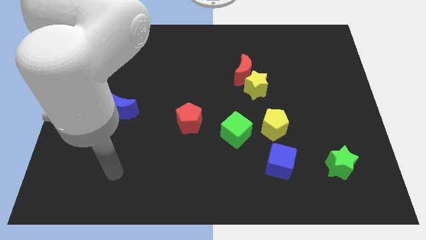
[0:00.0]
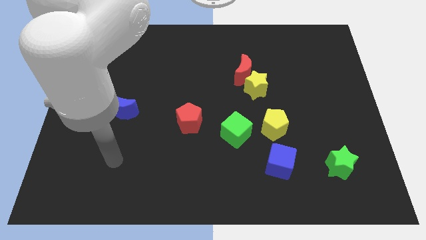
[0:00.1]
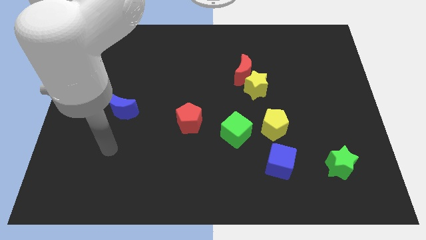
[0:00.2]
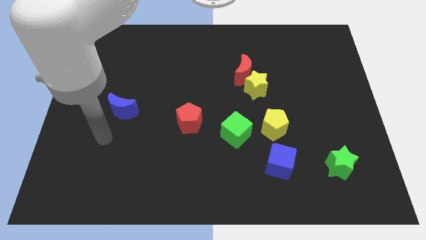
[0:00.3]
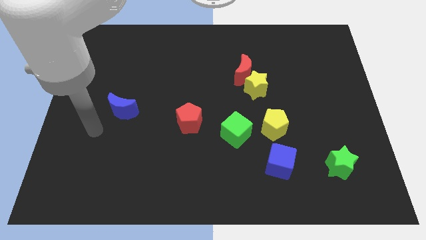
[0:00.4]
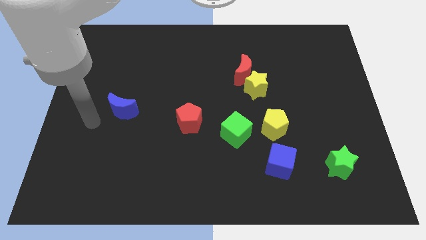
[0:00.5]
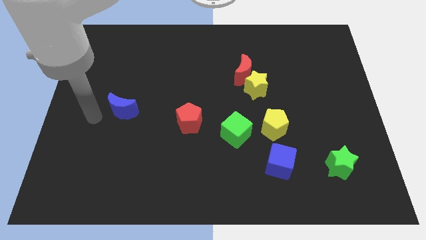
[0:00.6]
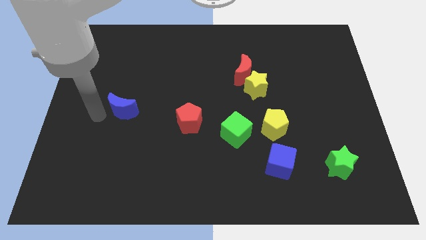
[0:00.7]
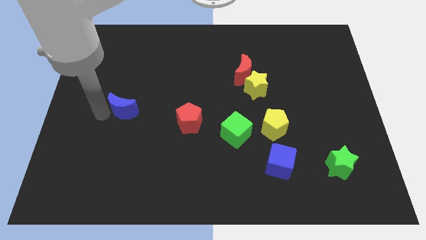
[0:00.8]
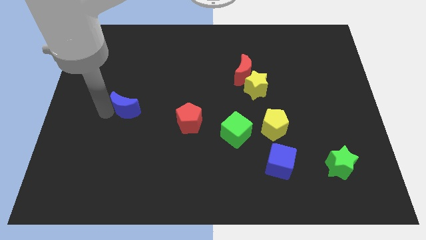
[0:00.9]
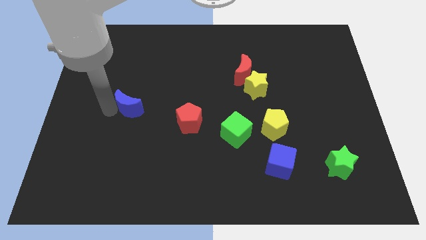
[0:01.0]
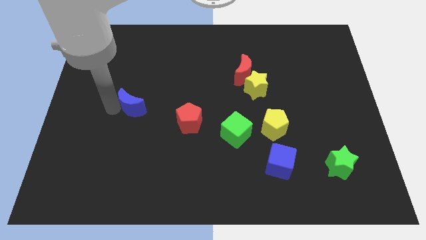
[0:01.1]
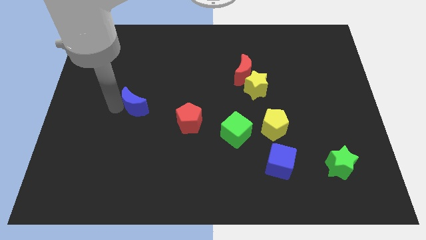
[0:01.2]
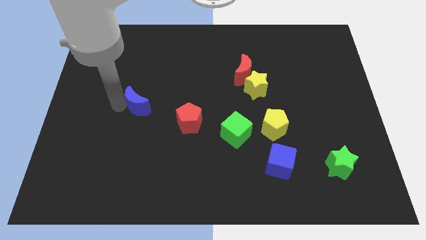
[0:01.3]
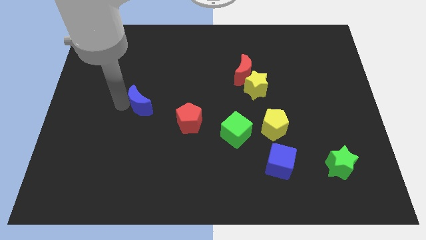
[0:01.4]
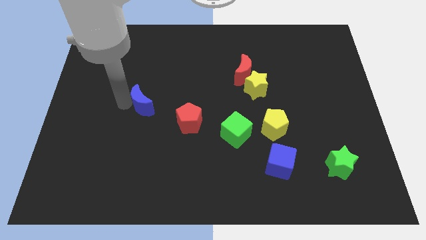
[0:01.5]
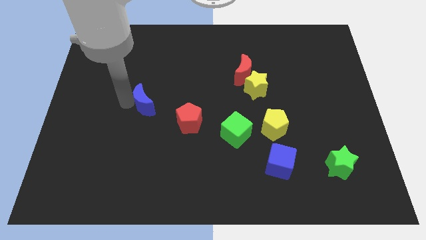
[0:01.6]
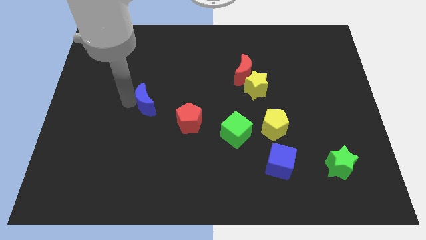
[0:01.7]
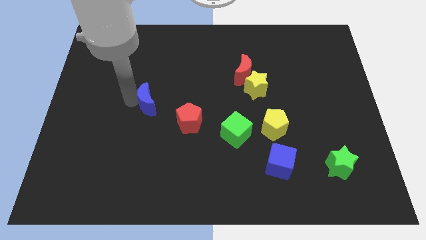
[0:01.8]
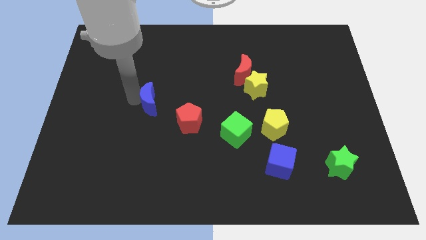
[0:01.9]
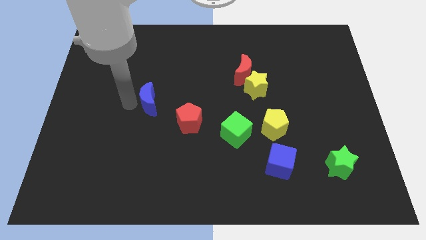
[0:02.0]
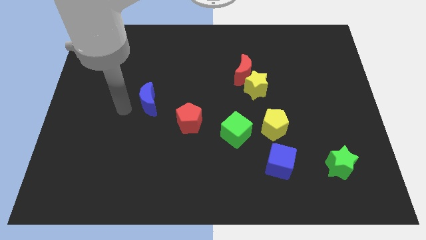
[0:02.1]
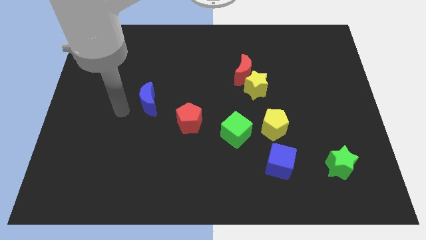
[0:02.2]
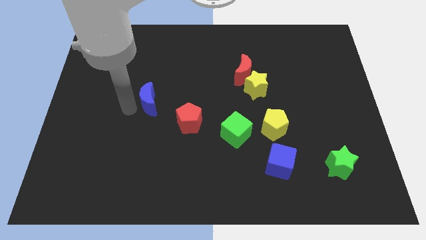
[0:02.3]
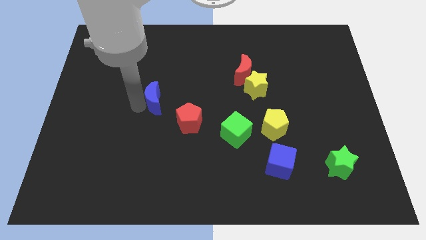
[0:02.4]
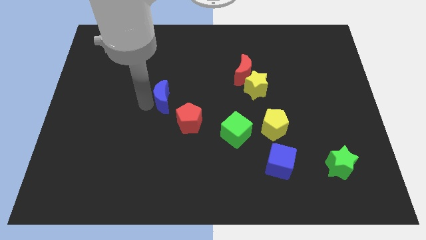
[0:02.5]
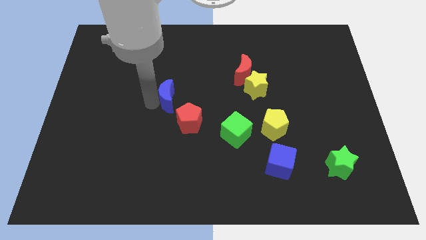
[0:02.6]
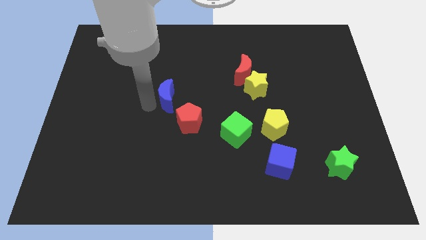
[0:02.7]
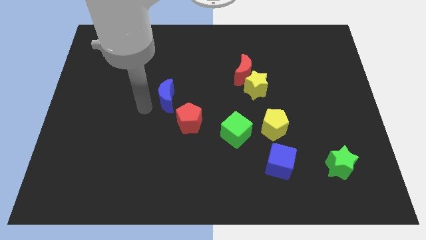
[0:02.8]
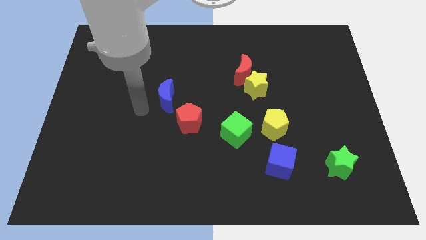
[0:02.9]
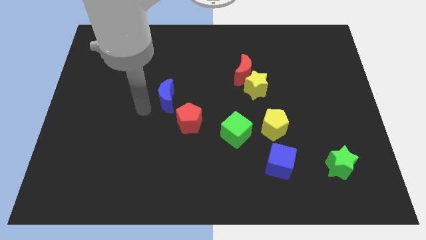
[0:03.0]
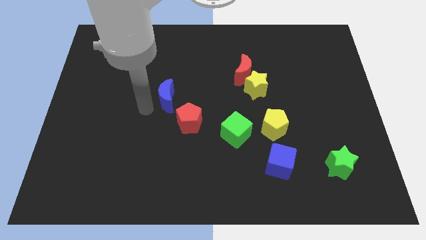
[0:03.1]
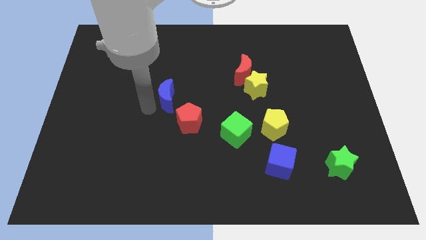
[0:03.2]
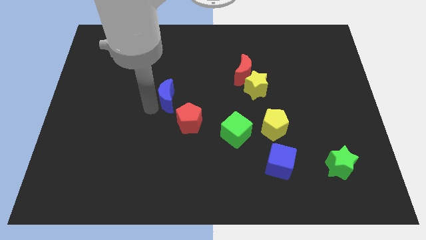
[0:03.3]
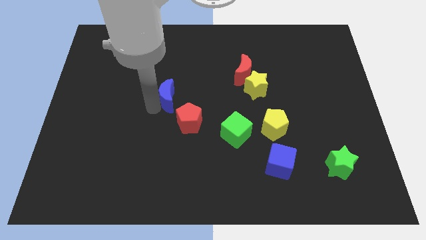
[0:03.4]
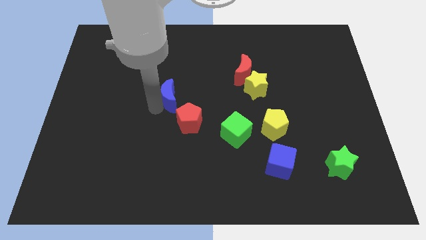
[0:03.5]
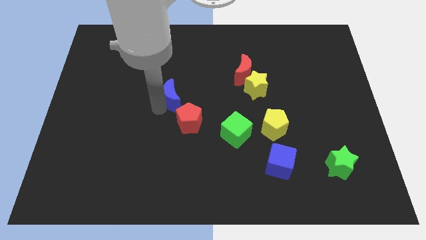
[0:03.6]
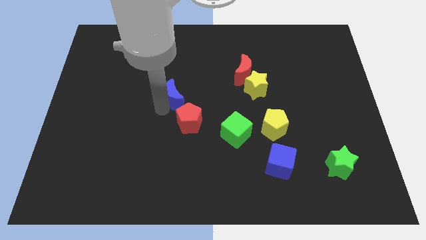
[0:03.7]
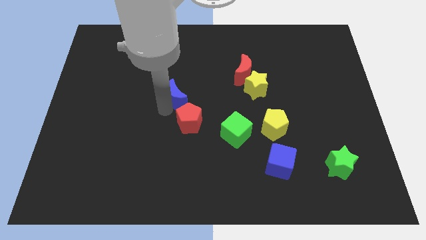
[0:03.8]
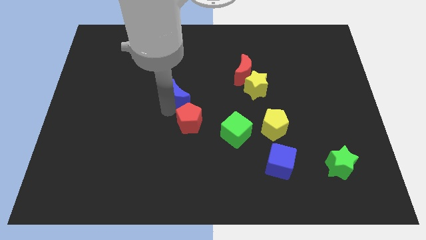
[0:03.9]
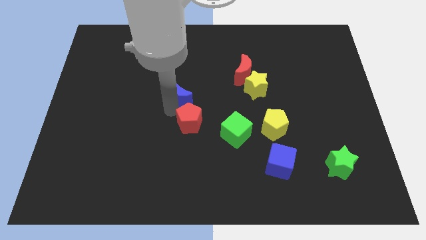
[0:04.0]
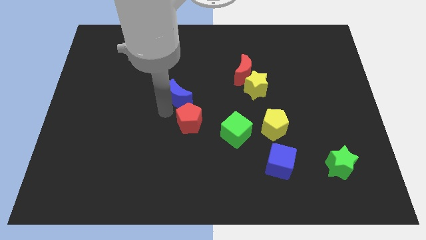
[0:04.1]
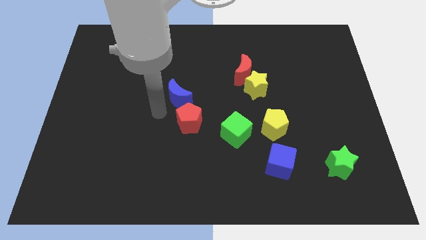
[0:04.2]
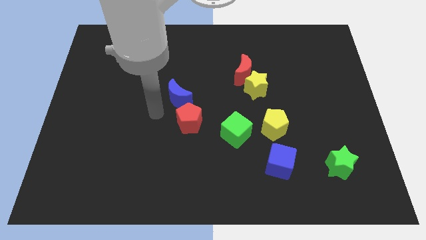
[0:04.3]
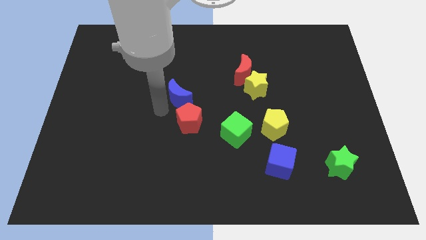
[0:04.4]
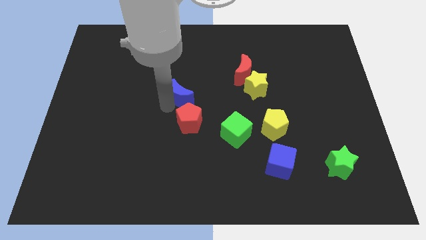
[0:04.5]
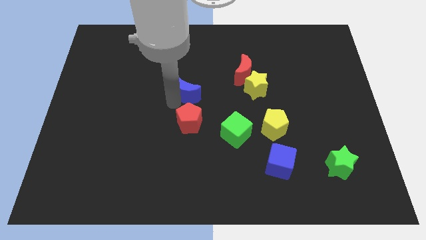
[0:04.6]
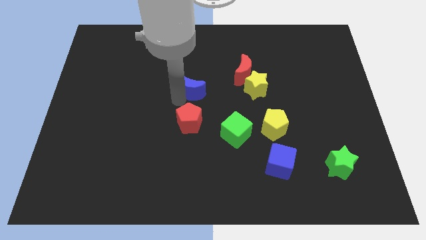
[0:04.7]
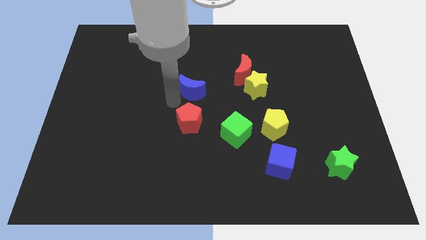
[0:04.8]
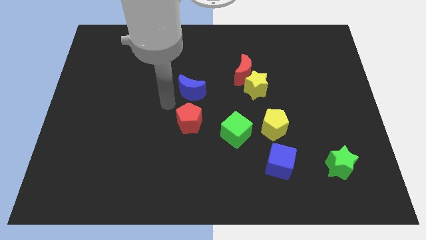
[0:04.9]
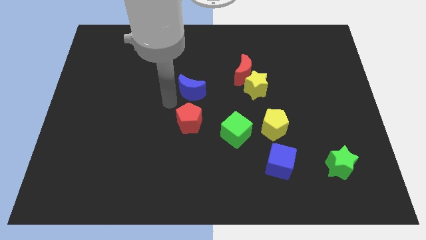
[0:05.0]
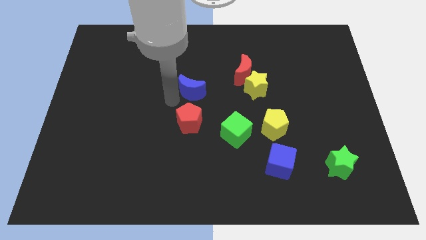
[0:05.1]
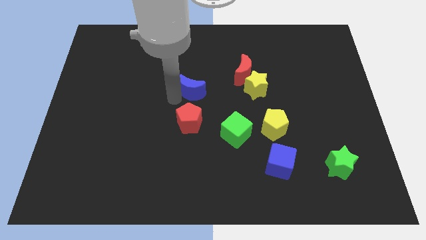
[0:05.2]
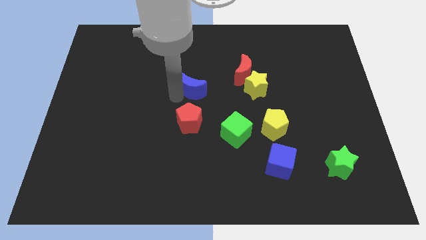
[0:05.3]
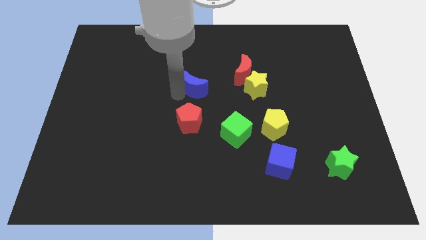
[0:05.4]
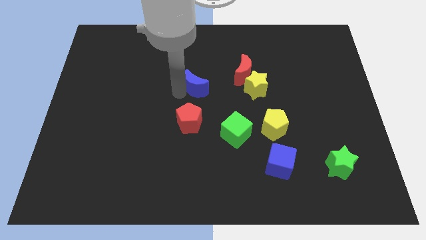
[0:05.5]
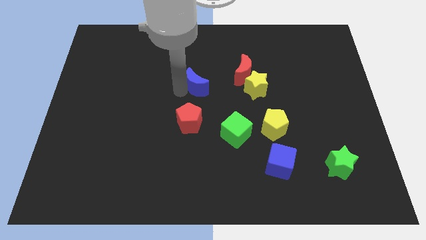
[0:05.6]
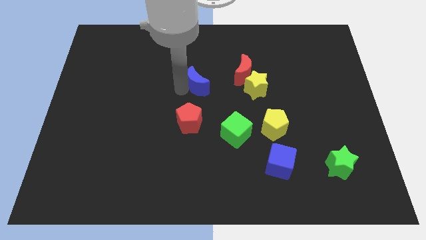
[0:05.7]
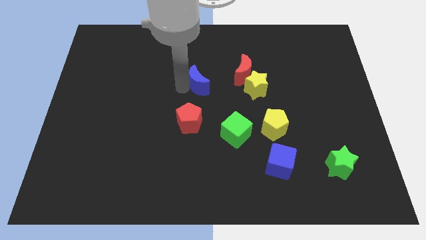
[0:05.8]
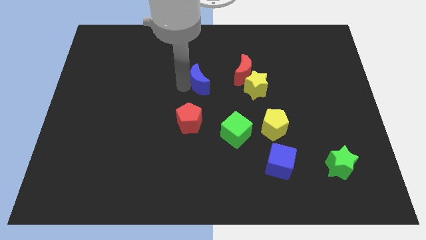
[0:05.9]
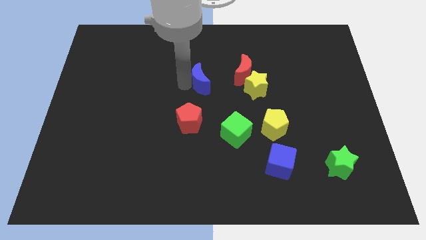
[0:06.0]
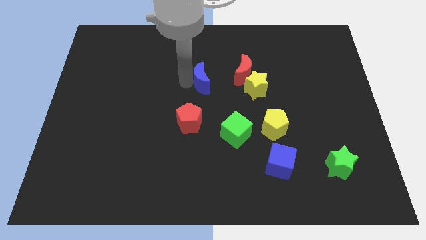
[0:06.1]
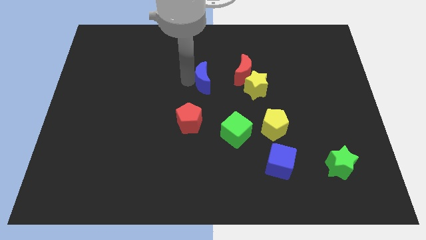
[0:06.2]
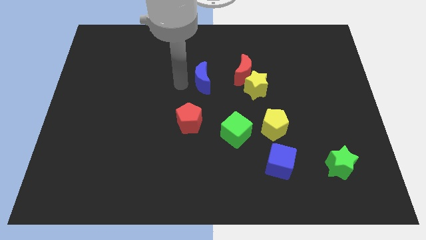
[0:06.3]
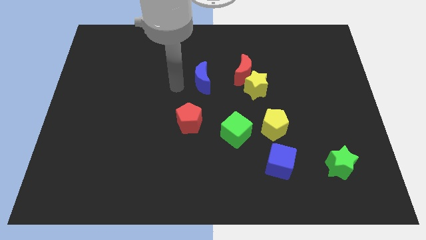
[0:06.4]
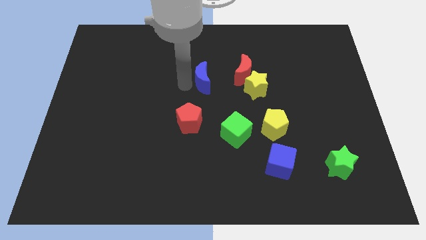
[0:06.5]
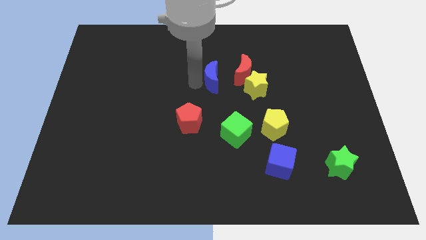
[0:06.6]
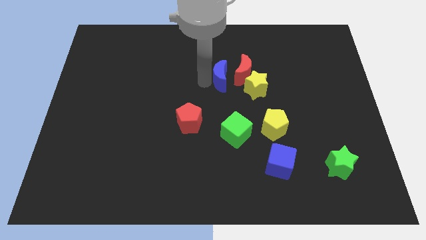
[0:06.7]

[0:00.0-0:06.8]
put the blue moon to the red moon

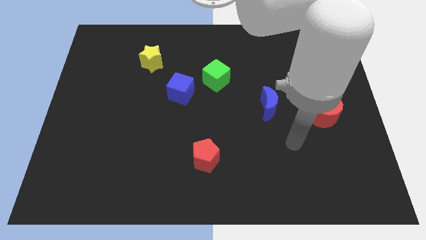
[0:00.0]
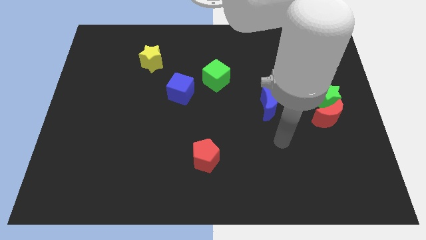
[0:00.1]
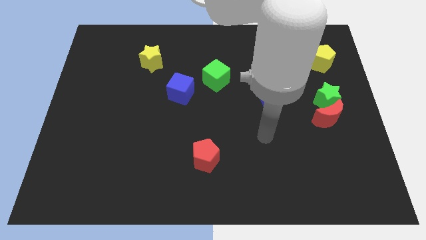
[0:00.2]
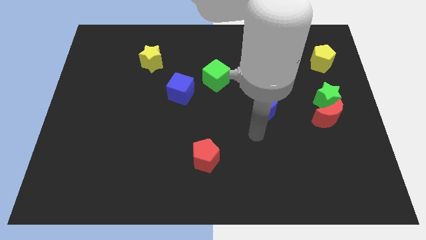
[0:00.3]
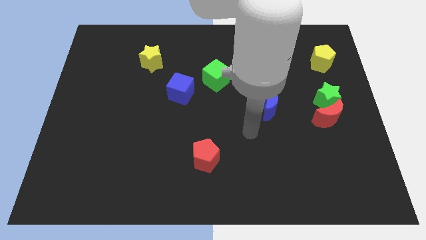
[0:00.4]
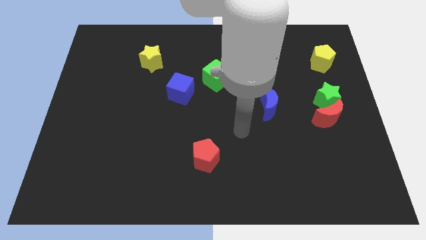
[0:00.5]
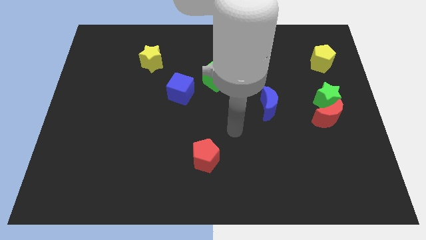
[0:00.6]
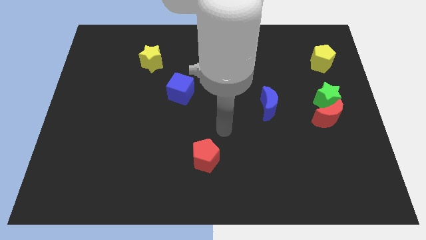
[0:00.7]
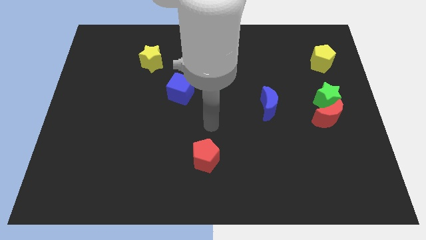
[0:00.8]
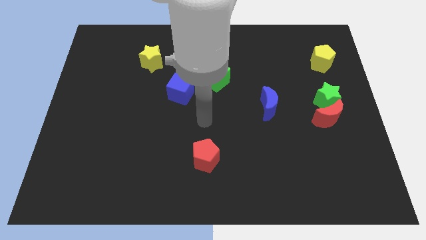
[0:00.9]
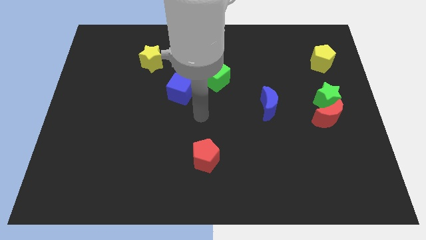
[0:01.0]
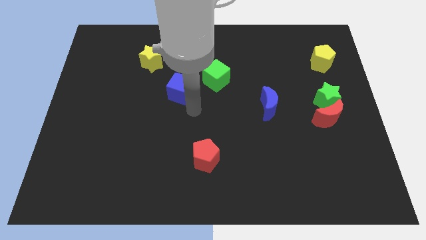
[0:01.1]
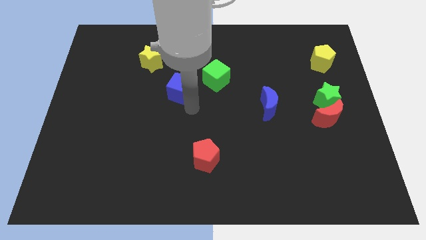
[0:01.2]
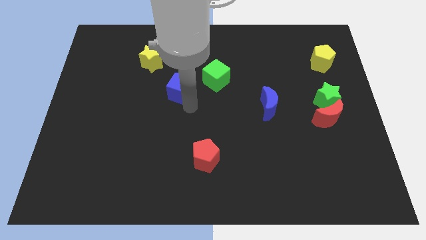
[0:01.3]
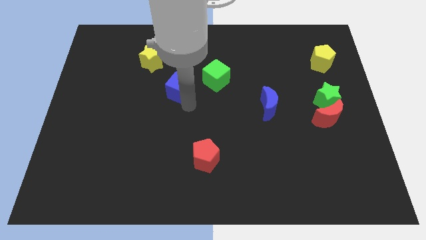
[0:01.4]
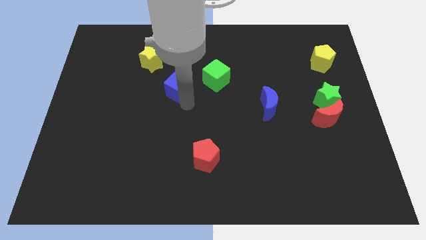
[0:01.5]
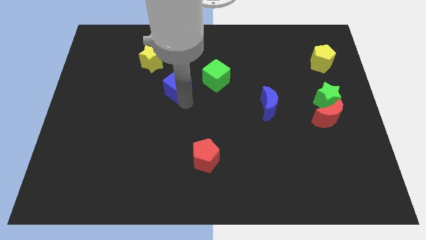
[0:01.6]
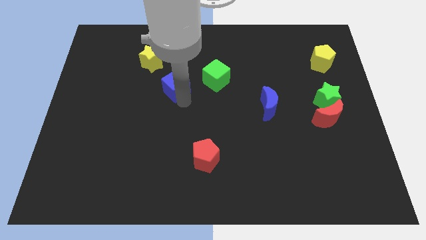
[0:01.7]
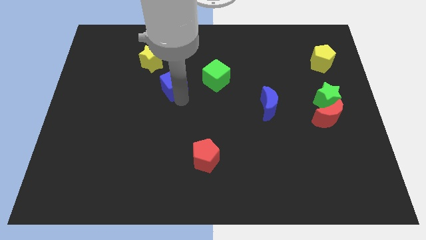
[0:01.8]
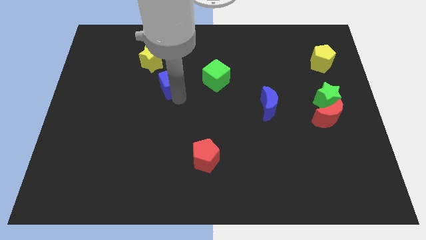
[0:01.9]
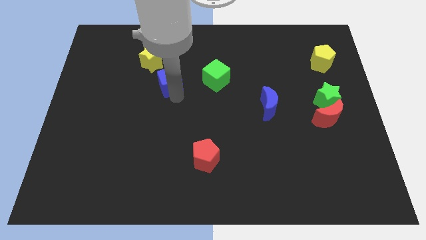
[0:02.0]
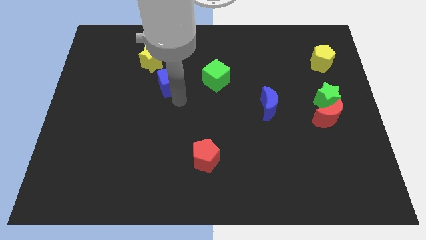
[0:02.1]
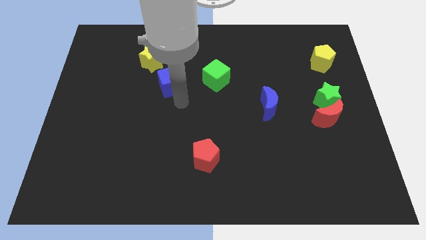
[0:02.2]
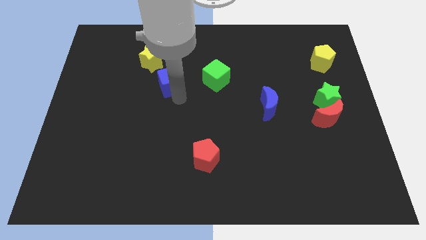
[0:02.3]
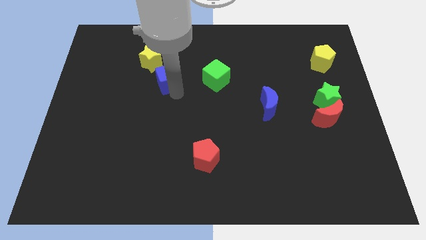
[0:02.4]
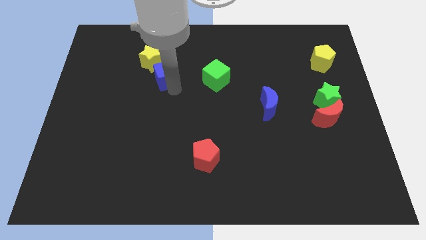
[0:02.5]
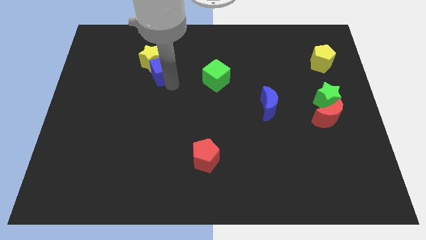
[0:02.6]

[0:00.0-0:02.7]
slide the blue cube close to the yellow star
